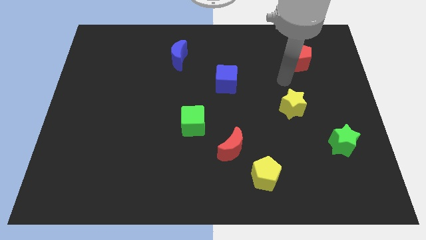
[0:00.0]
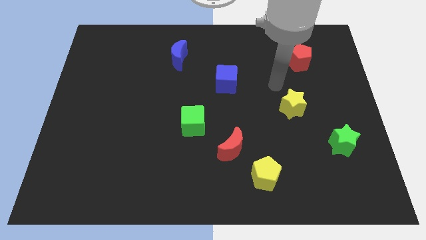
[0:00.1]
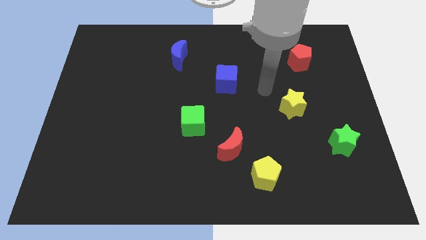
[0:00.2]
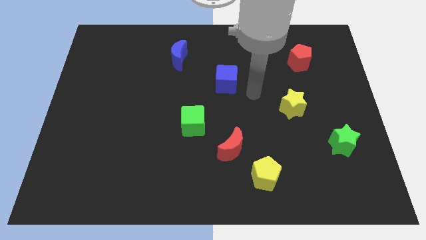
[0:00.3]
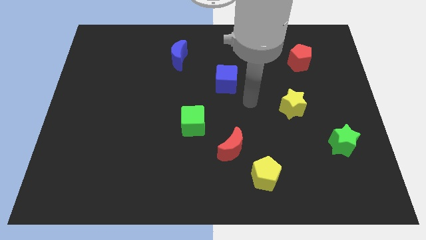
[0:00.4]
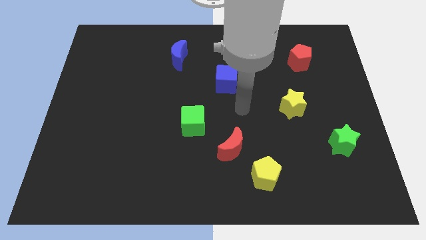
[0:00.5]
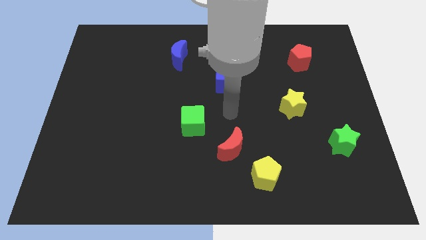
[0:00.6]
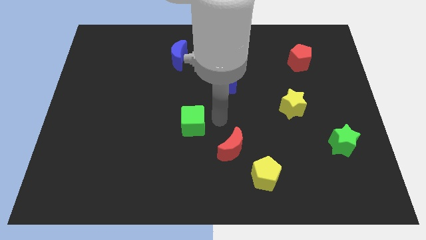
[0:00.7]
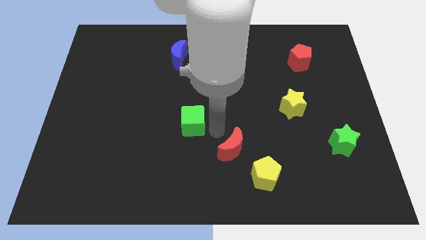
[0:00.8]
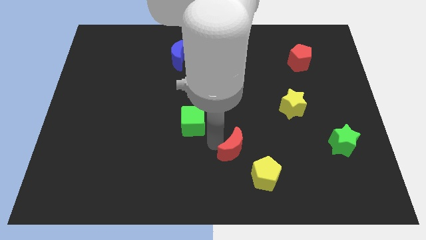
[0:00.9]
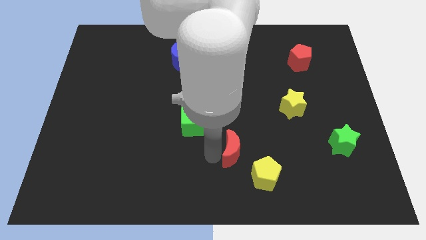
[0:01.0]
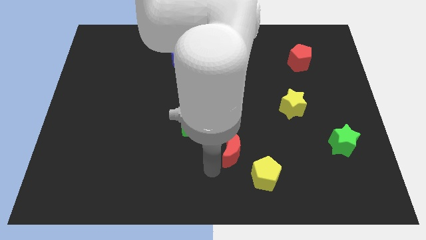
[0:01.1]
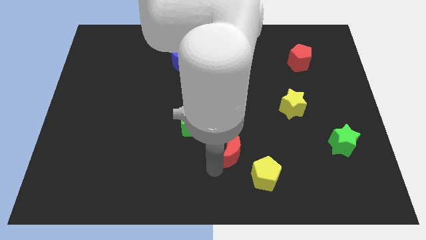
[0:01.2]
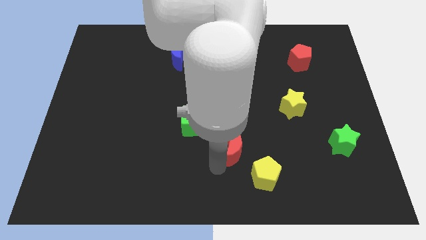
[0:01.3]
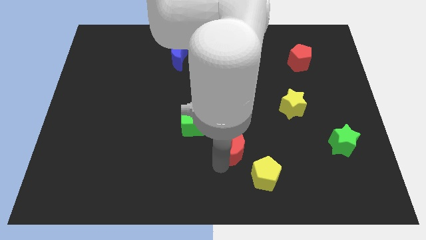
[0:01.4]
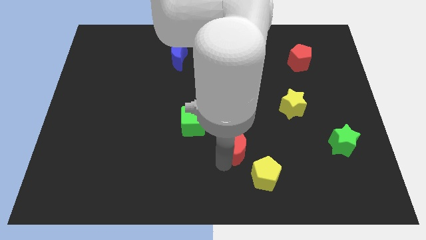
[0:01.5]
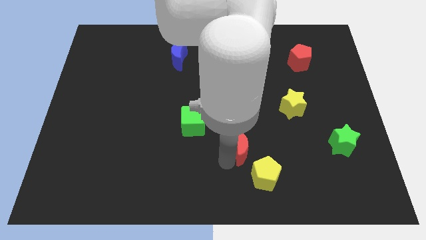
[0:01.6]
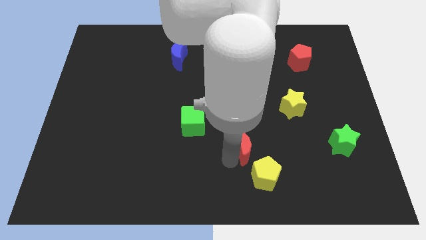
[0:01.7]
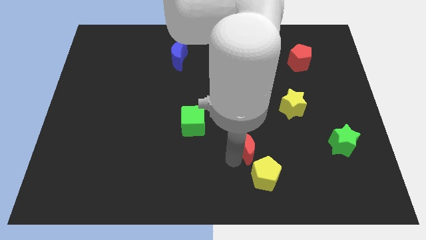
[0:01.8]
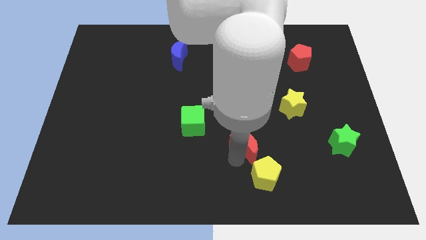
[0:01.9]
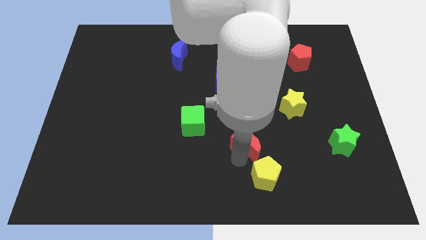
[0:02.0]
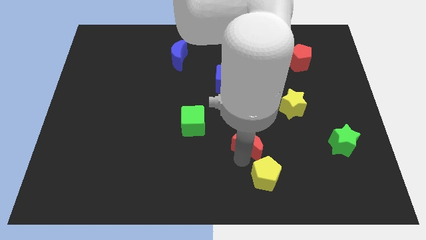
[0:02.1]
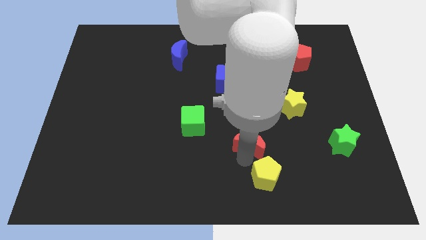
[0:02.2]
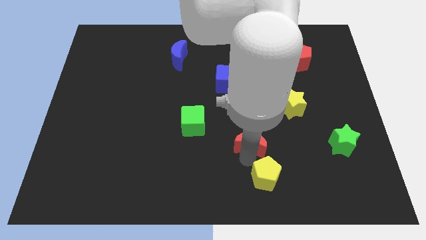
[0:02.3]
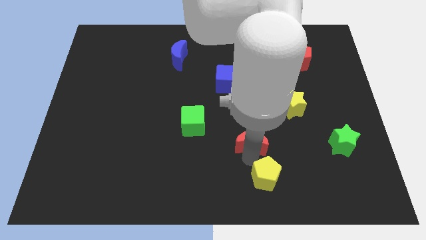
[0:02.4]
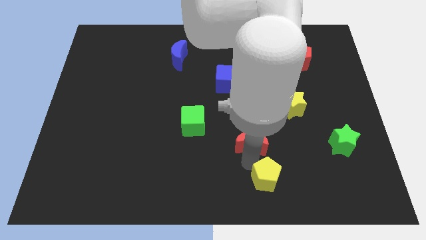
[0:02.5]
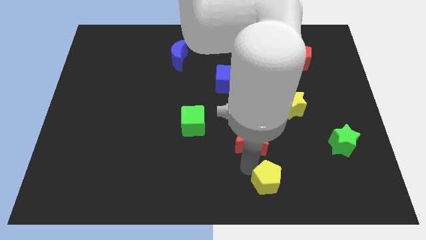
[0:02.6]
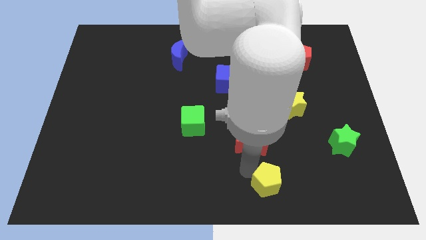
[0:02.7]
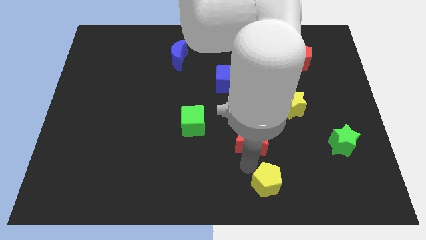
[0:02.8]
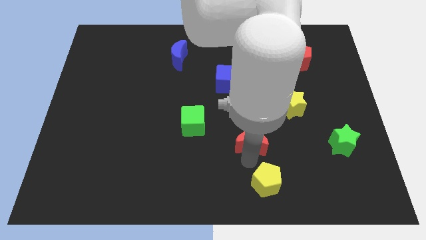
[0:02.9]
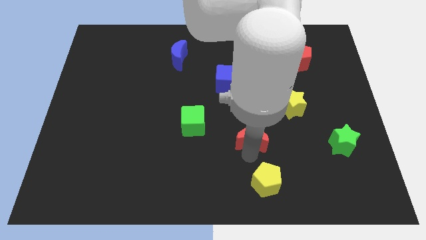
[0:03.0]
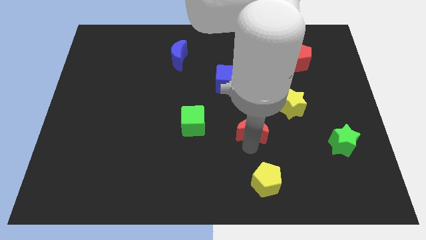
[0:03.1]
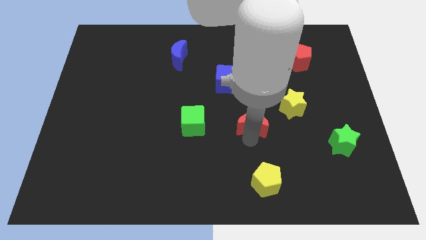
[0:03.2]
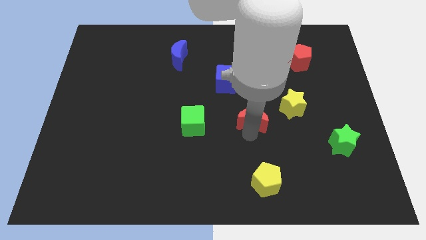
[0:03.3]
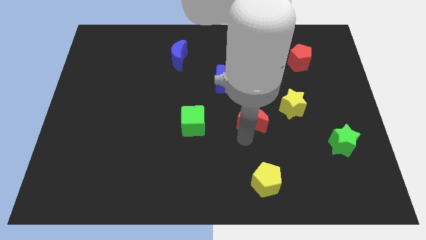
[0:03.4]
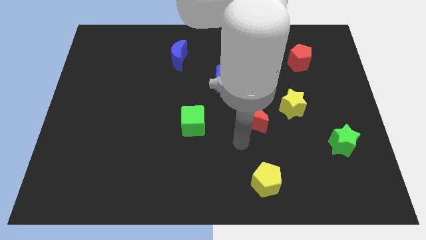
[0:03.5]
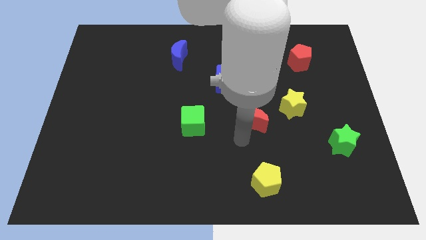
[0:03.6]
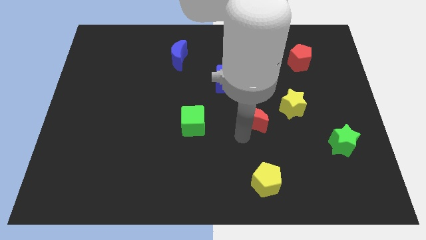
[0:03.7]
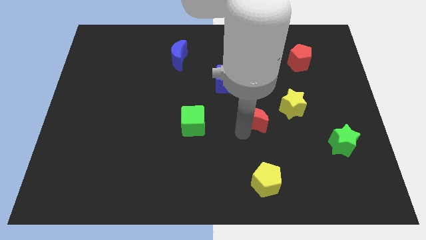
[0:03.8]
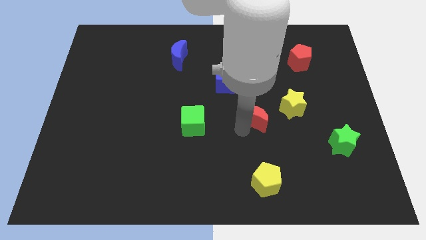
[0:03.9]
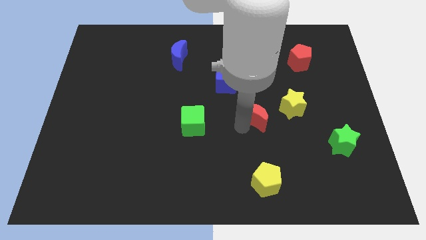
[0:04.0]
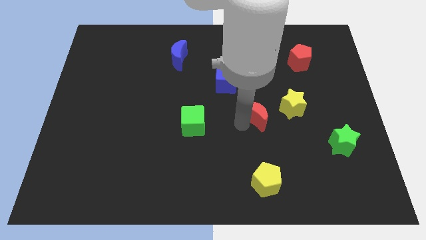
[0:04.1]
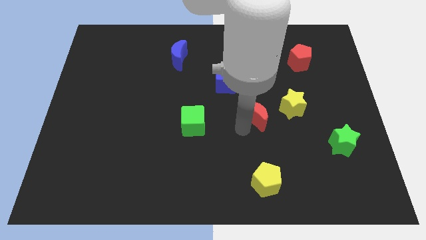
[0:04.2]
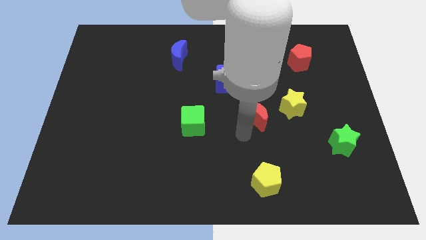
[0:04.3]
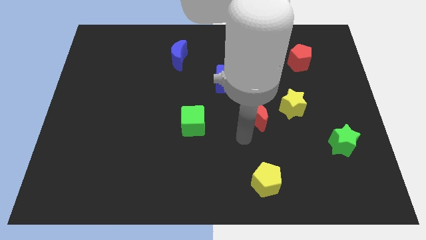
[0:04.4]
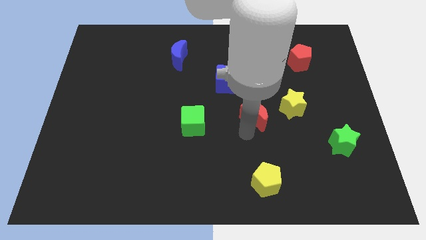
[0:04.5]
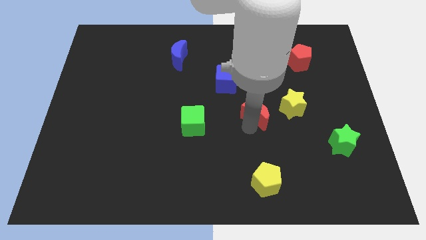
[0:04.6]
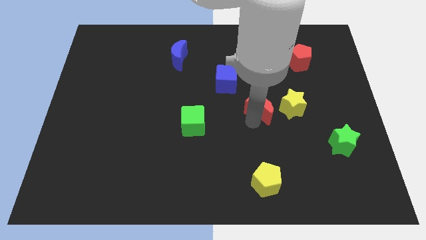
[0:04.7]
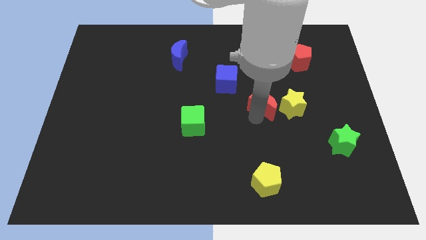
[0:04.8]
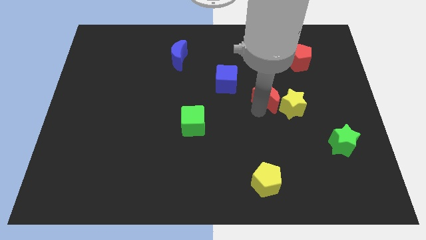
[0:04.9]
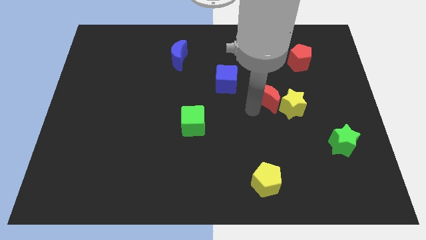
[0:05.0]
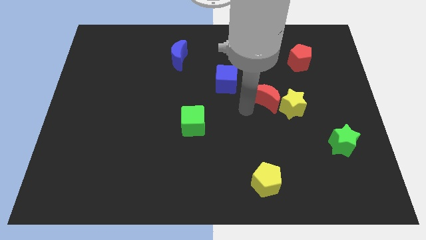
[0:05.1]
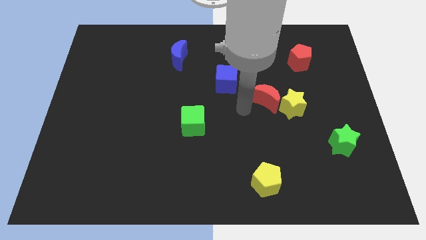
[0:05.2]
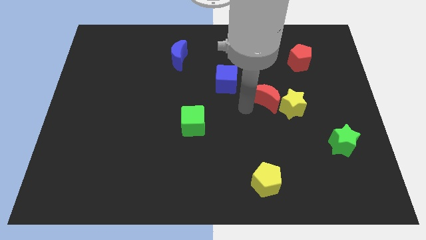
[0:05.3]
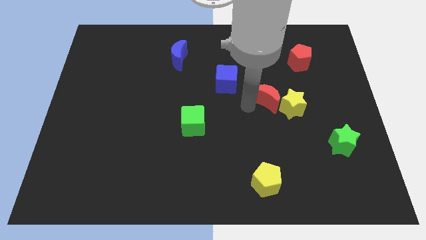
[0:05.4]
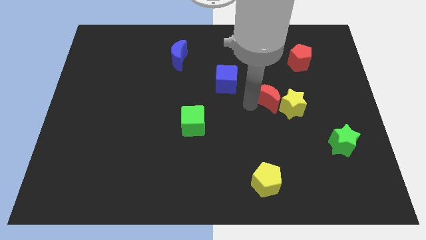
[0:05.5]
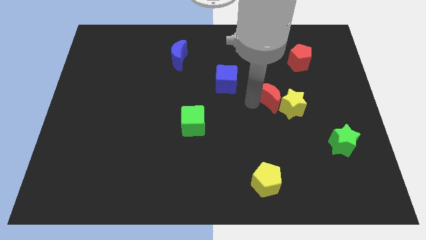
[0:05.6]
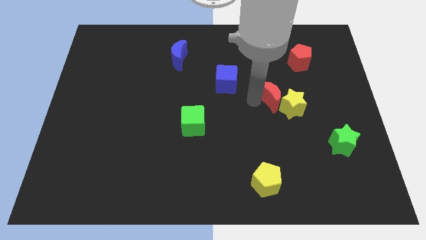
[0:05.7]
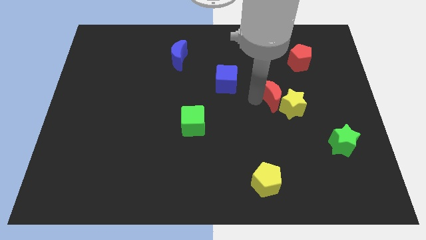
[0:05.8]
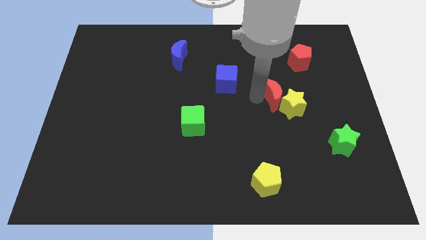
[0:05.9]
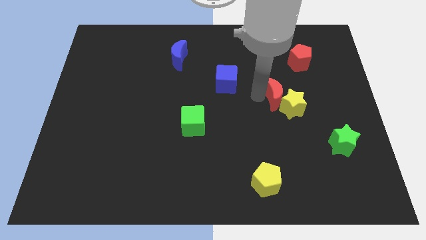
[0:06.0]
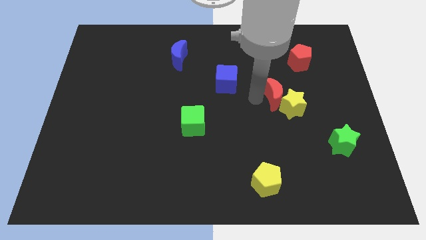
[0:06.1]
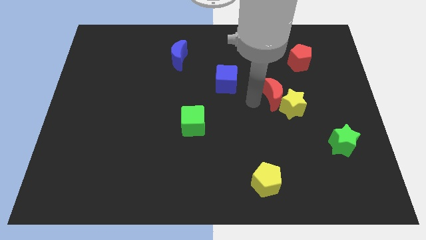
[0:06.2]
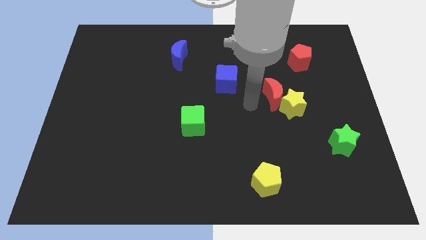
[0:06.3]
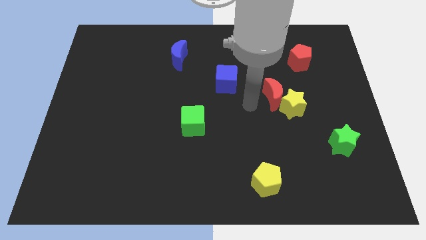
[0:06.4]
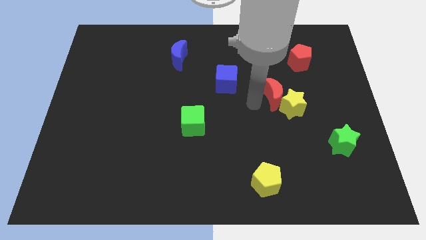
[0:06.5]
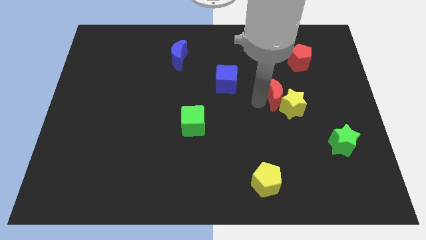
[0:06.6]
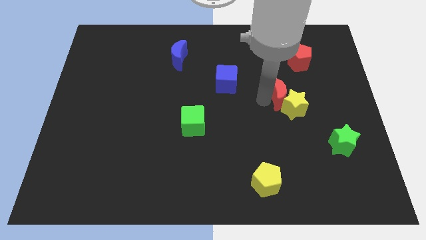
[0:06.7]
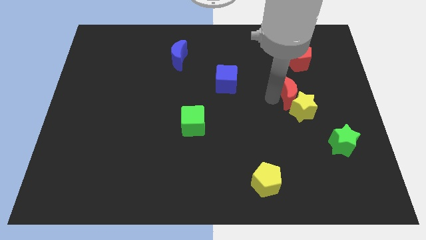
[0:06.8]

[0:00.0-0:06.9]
move the red moon up and right diagonally

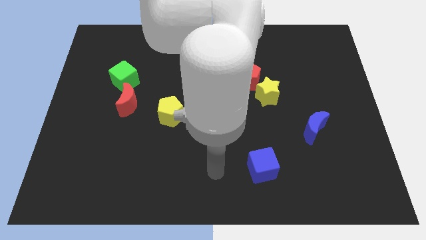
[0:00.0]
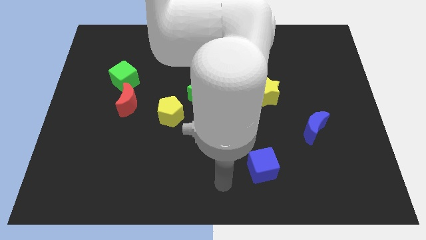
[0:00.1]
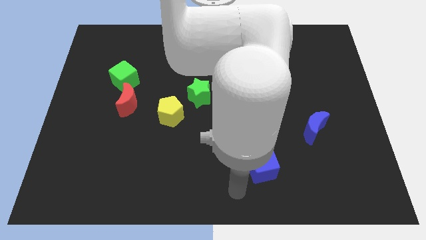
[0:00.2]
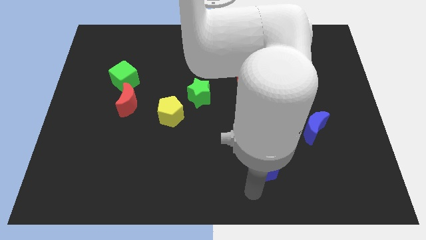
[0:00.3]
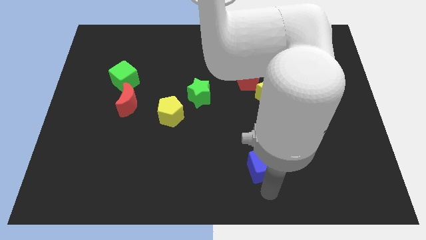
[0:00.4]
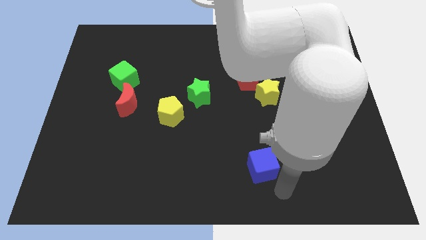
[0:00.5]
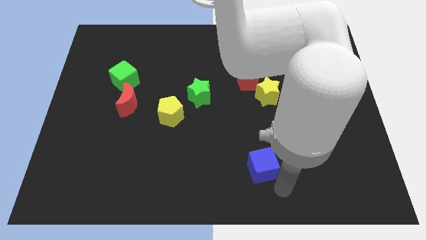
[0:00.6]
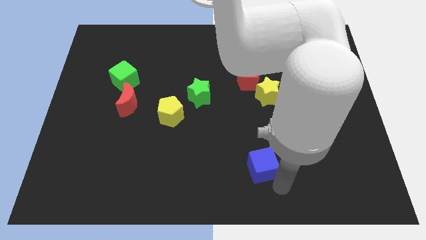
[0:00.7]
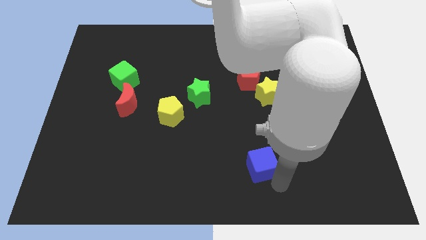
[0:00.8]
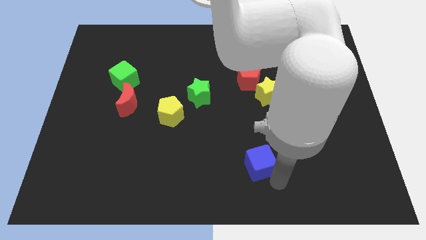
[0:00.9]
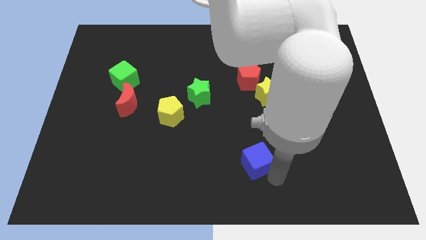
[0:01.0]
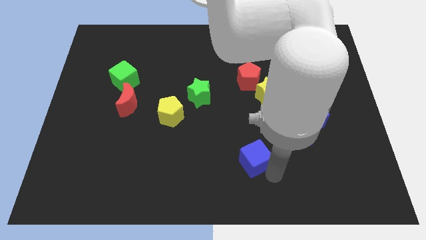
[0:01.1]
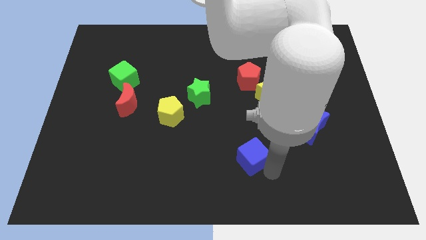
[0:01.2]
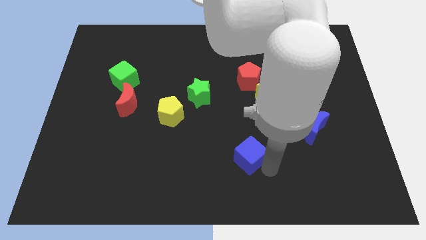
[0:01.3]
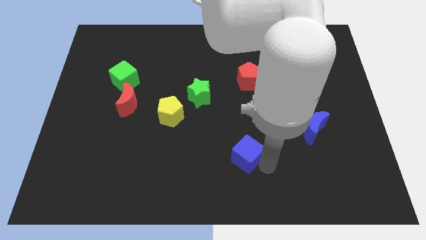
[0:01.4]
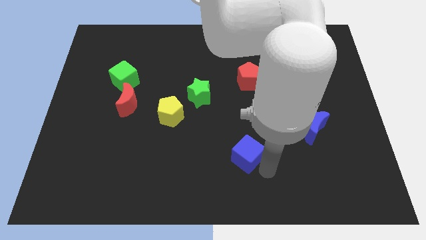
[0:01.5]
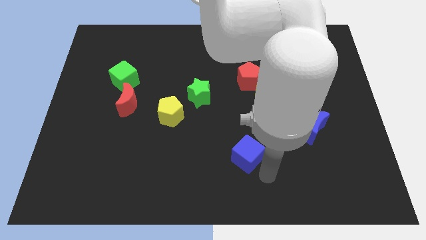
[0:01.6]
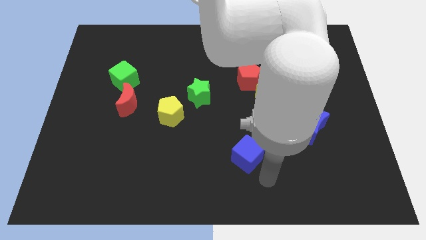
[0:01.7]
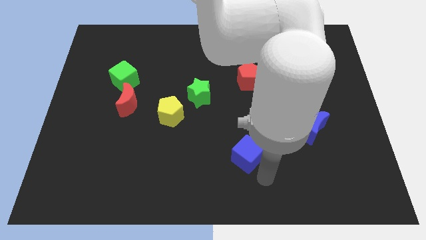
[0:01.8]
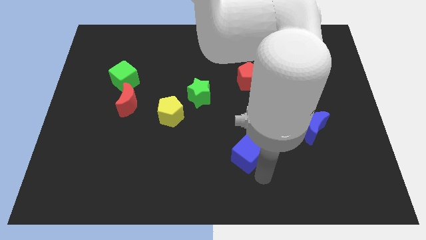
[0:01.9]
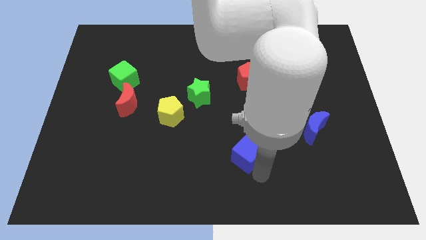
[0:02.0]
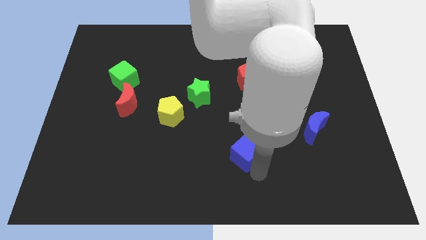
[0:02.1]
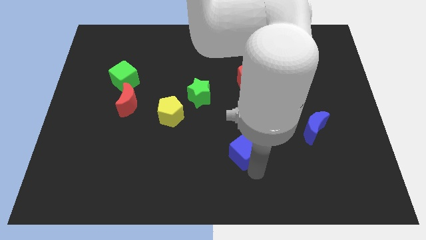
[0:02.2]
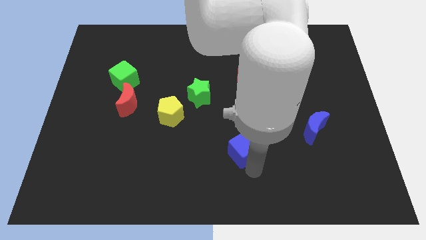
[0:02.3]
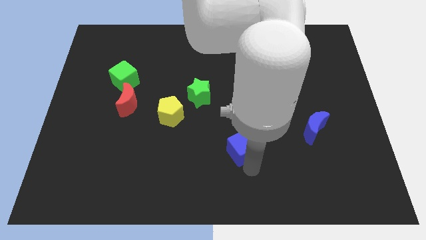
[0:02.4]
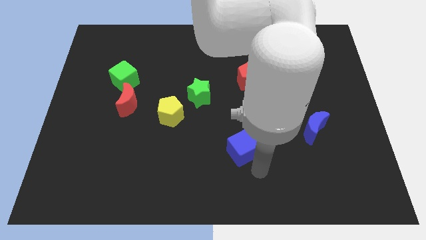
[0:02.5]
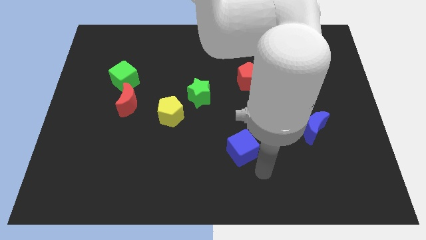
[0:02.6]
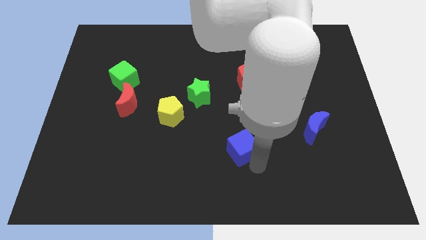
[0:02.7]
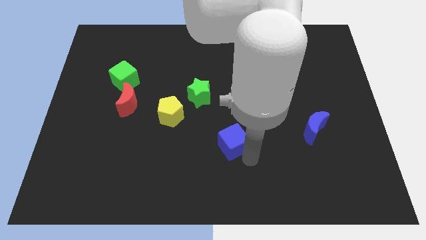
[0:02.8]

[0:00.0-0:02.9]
move the blue cube diagonally up and to the left a little
